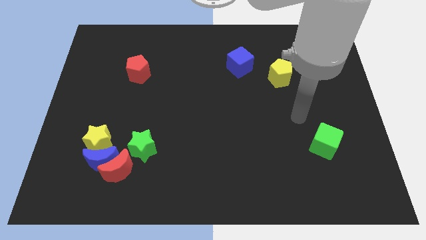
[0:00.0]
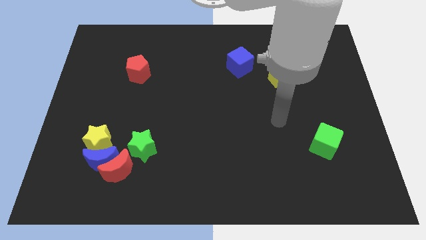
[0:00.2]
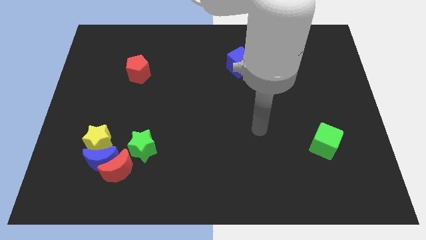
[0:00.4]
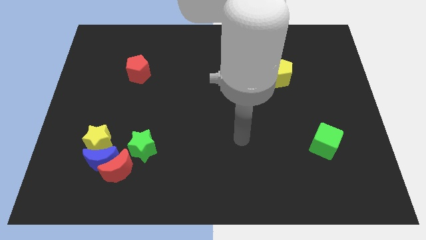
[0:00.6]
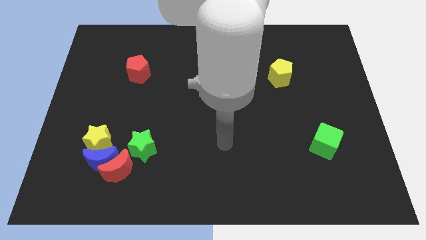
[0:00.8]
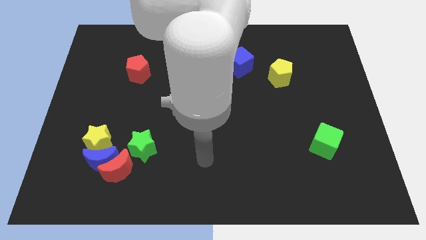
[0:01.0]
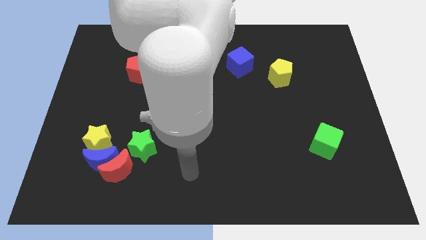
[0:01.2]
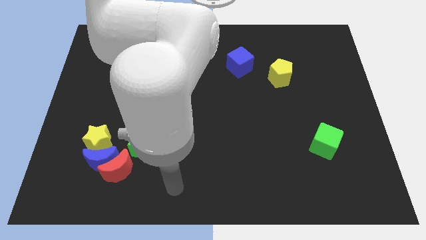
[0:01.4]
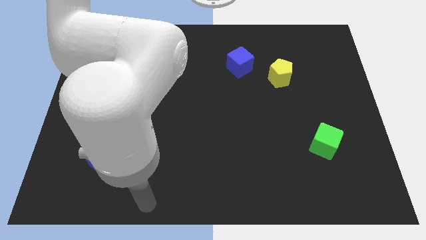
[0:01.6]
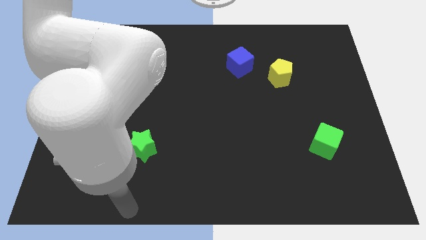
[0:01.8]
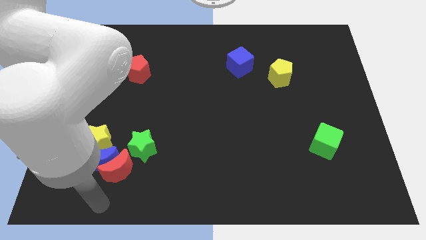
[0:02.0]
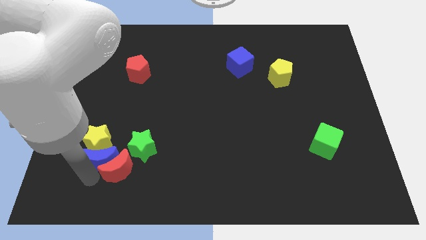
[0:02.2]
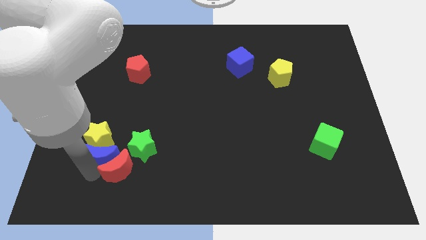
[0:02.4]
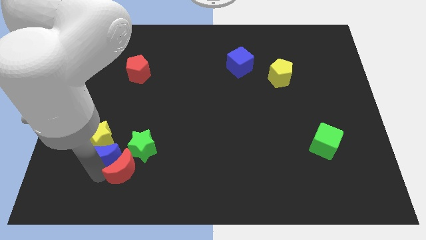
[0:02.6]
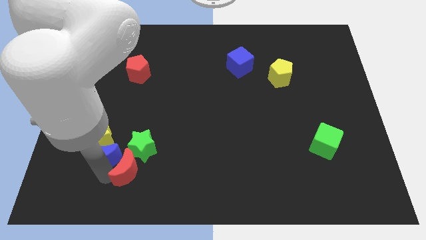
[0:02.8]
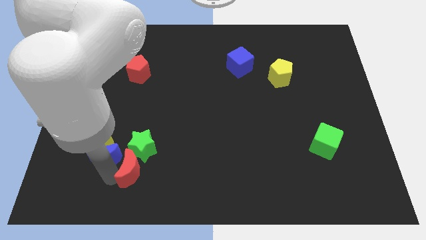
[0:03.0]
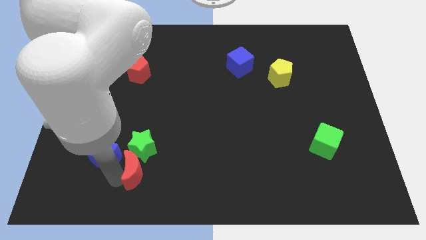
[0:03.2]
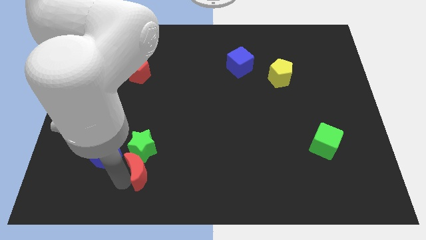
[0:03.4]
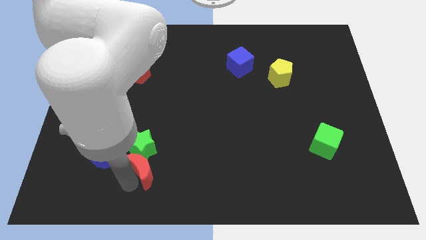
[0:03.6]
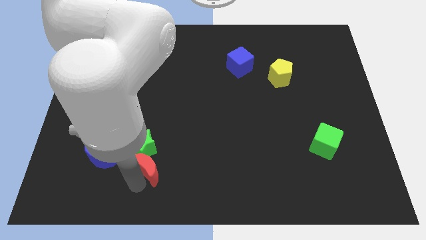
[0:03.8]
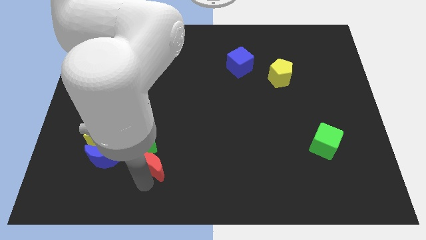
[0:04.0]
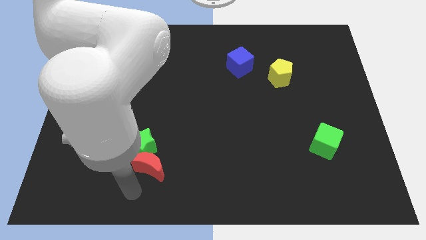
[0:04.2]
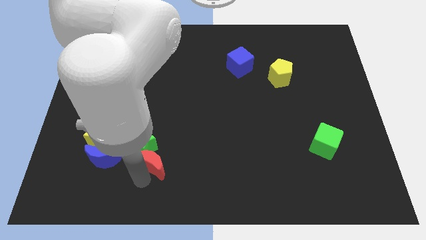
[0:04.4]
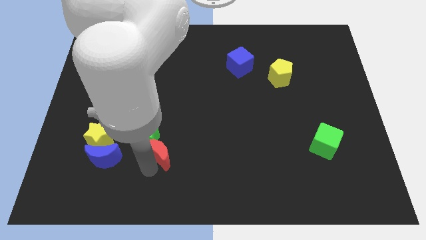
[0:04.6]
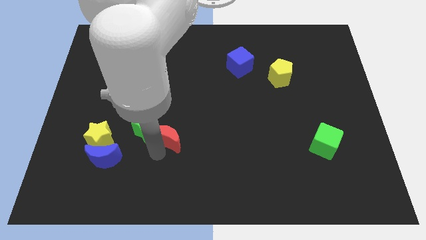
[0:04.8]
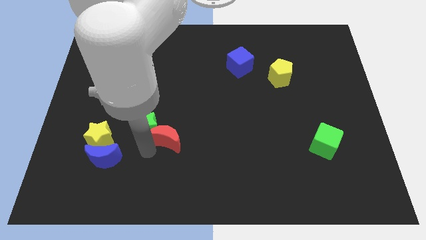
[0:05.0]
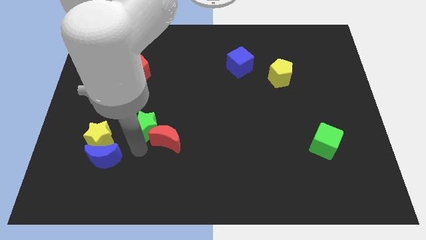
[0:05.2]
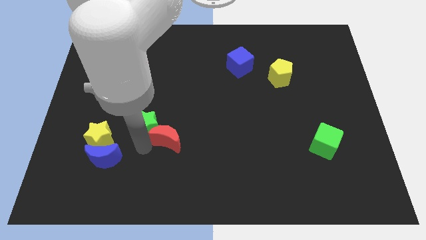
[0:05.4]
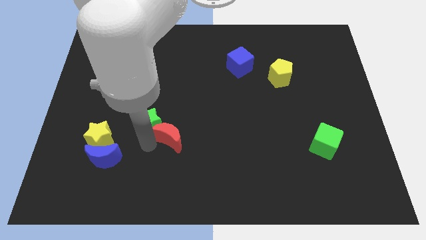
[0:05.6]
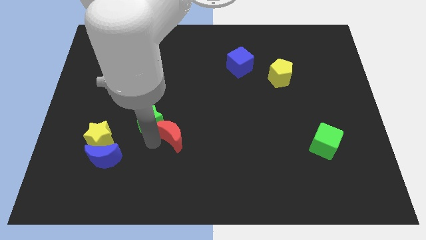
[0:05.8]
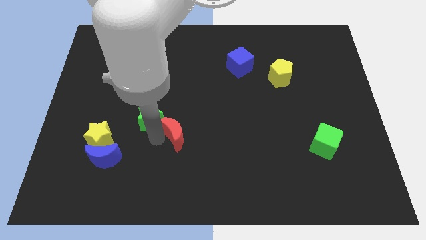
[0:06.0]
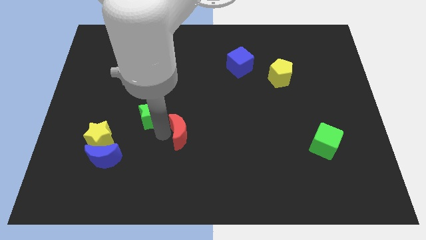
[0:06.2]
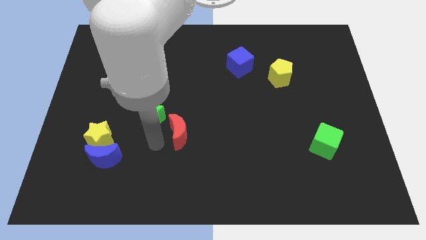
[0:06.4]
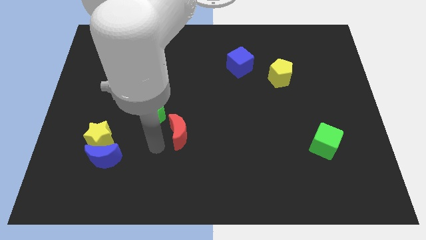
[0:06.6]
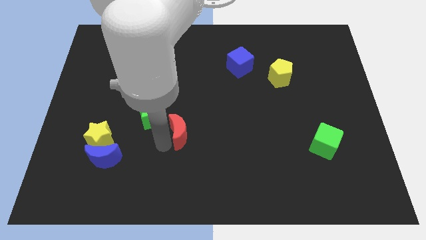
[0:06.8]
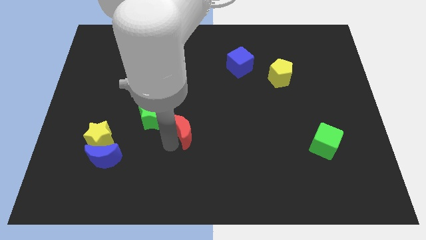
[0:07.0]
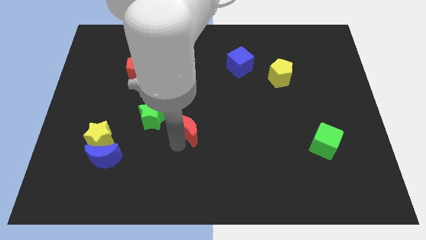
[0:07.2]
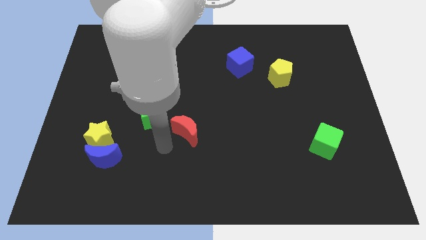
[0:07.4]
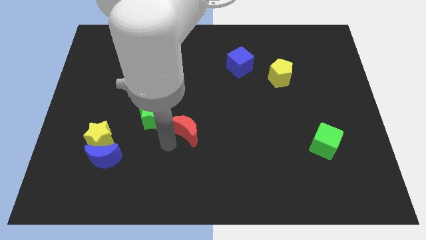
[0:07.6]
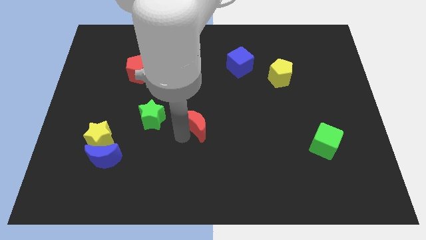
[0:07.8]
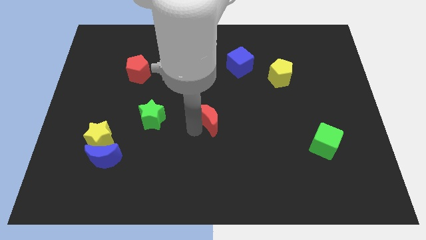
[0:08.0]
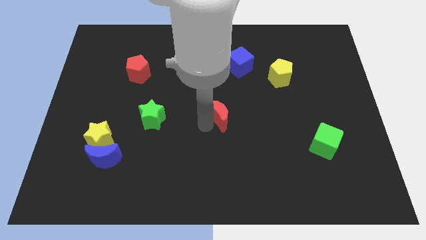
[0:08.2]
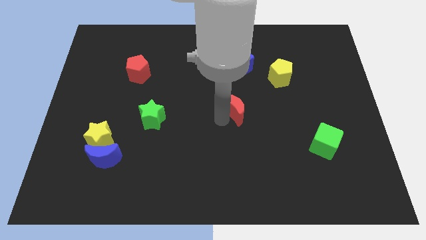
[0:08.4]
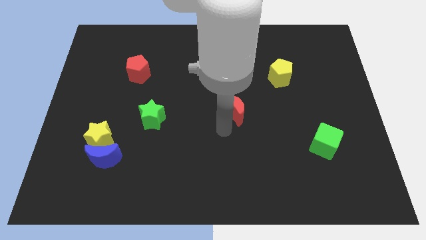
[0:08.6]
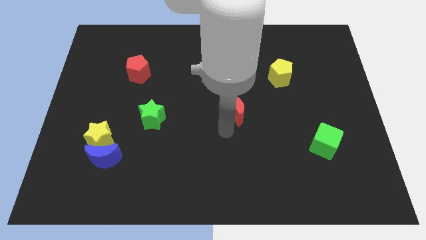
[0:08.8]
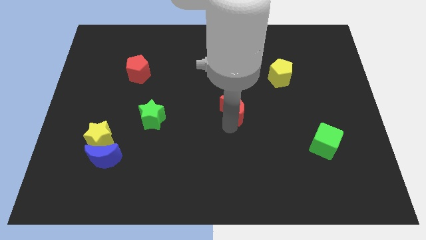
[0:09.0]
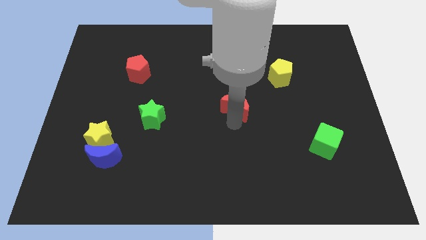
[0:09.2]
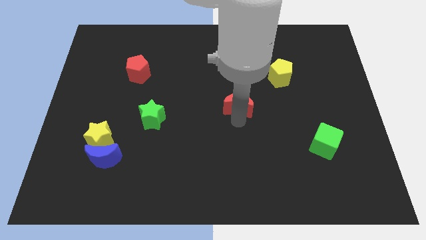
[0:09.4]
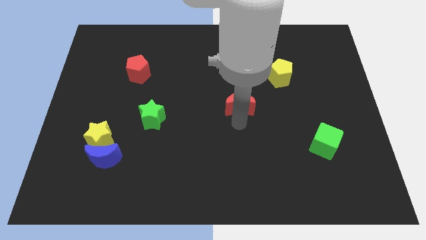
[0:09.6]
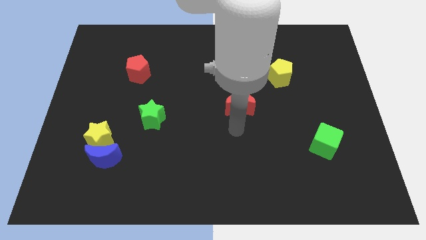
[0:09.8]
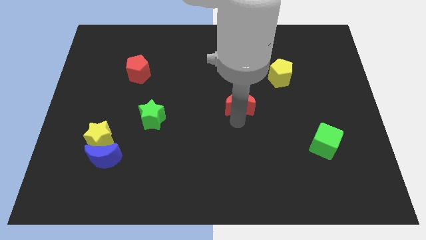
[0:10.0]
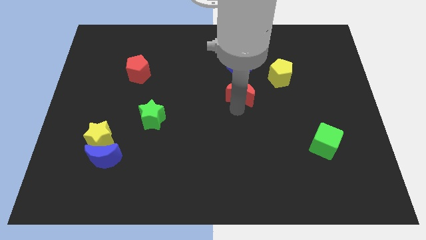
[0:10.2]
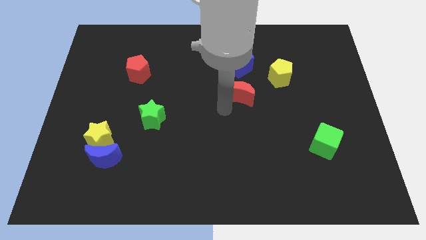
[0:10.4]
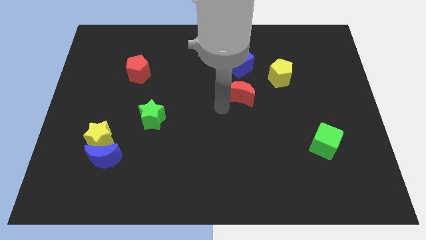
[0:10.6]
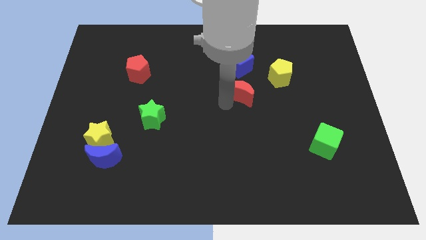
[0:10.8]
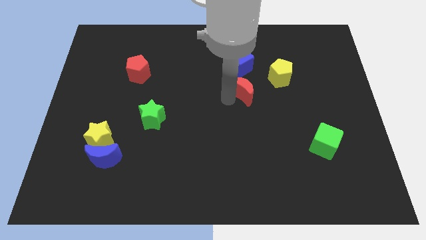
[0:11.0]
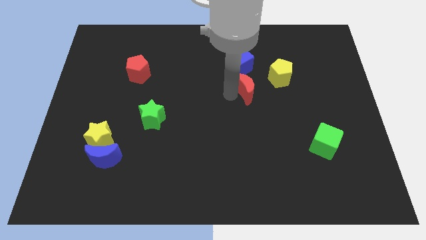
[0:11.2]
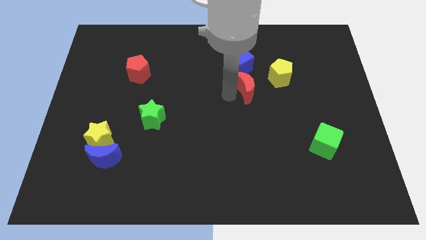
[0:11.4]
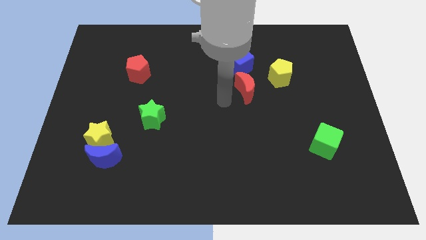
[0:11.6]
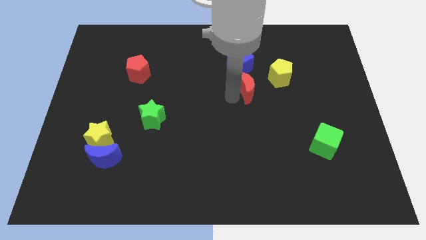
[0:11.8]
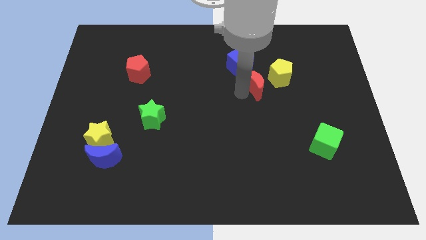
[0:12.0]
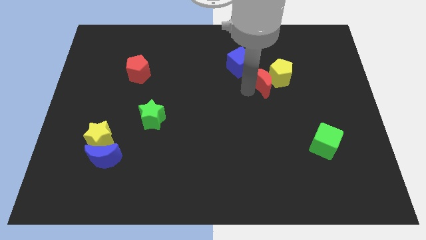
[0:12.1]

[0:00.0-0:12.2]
move the red moon towards the yellow pentagon
